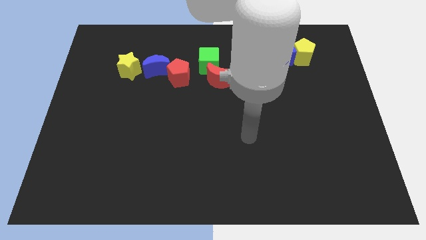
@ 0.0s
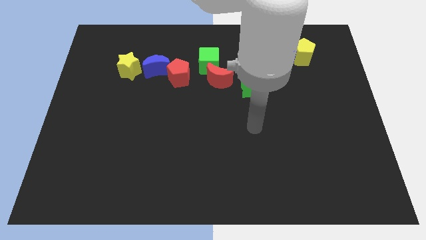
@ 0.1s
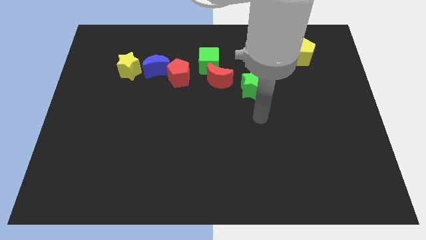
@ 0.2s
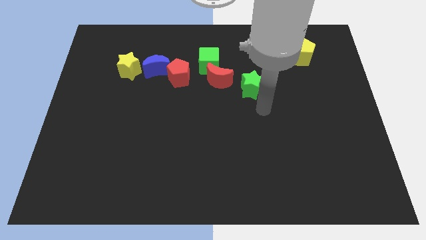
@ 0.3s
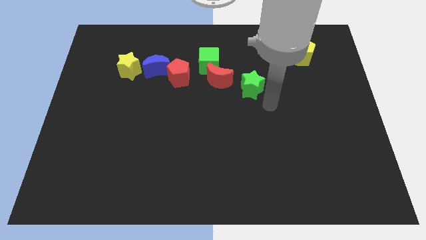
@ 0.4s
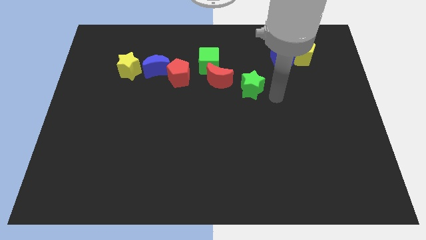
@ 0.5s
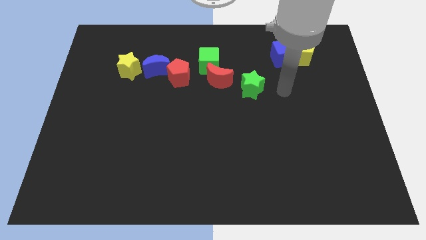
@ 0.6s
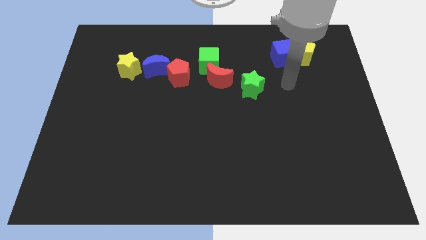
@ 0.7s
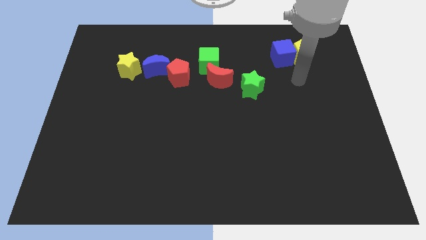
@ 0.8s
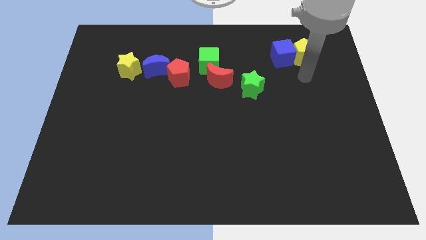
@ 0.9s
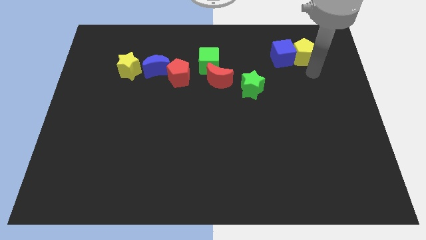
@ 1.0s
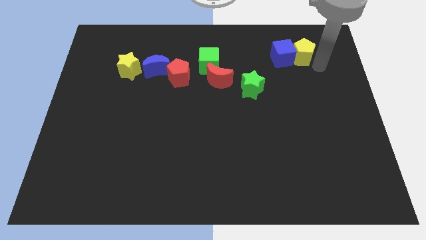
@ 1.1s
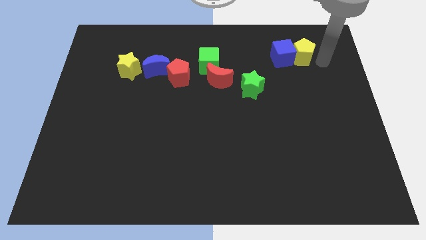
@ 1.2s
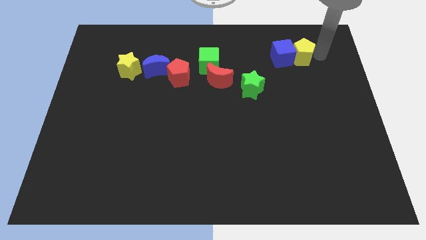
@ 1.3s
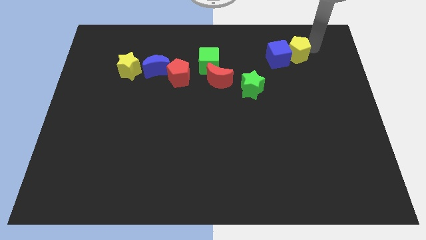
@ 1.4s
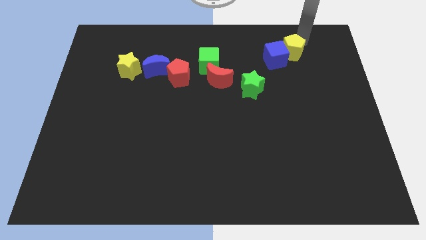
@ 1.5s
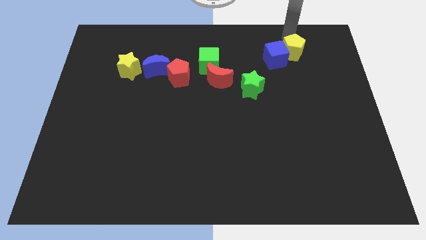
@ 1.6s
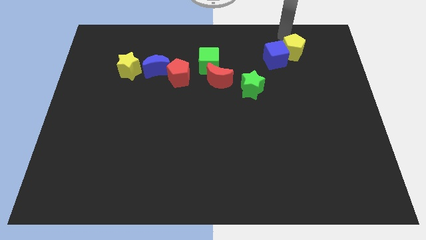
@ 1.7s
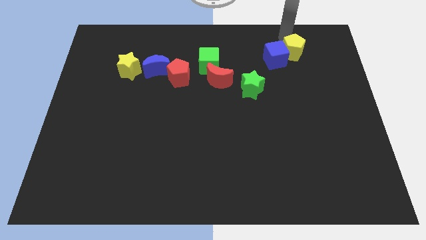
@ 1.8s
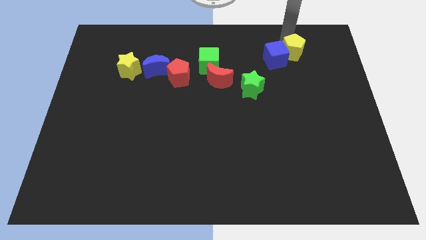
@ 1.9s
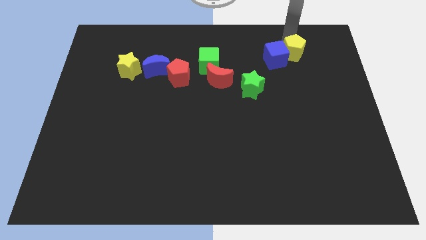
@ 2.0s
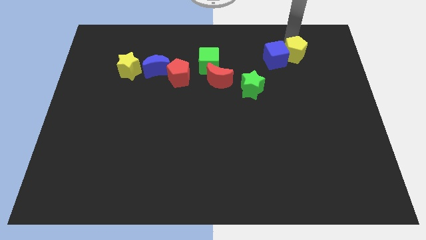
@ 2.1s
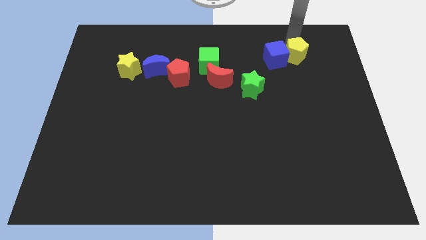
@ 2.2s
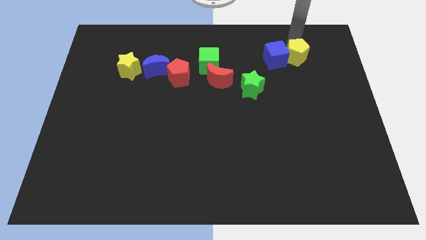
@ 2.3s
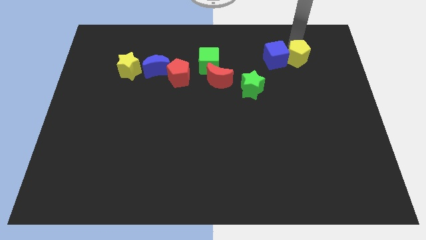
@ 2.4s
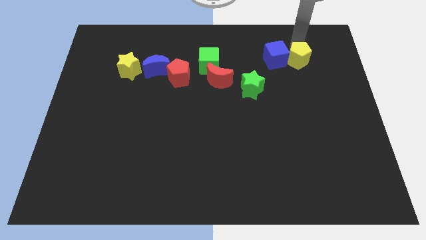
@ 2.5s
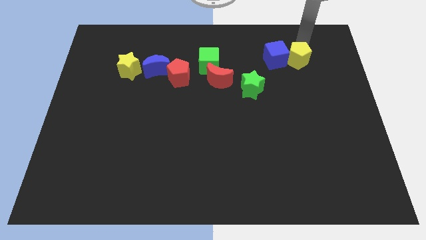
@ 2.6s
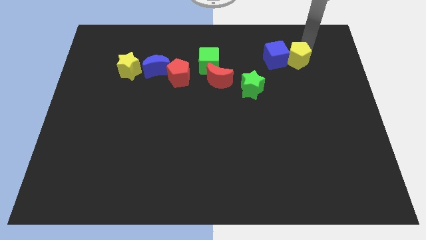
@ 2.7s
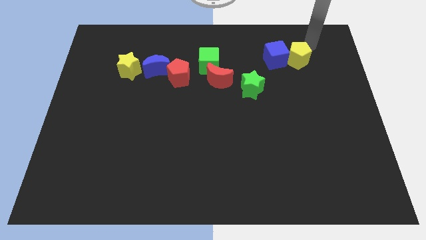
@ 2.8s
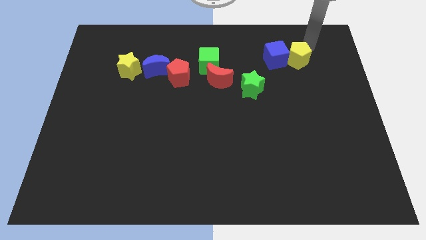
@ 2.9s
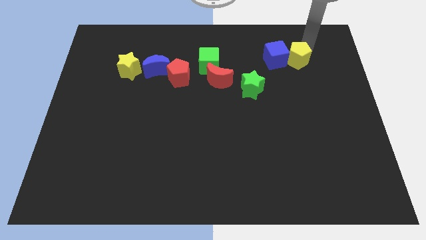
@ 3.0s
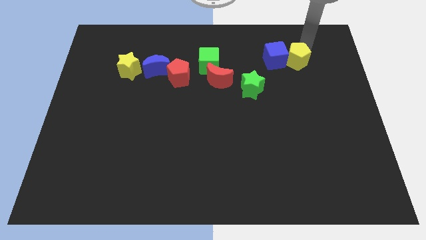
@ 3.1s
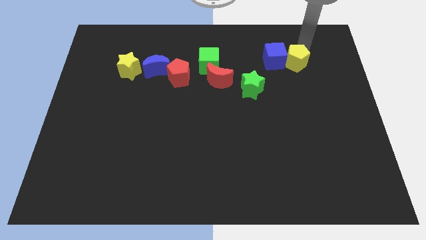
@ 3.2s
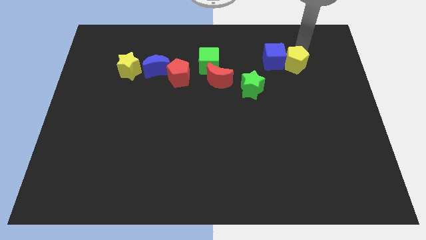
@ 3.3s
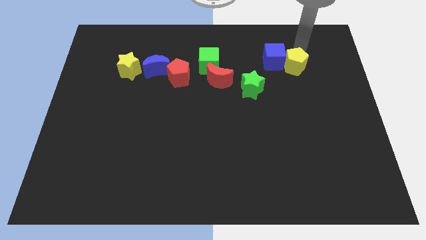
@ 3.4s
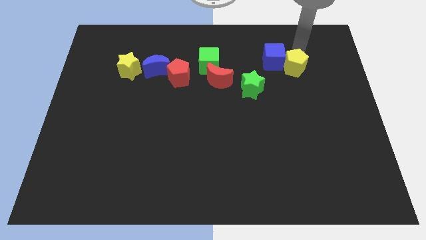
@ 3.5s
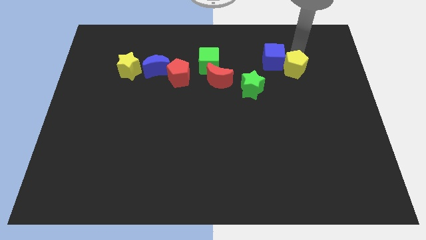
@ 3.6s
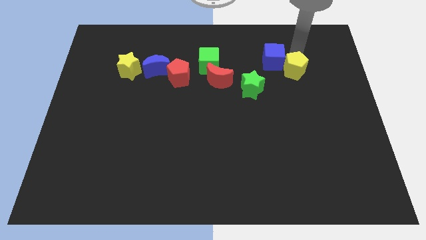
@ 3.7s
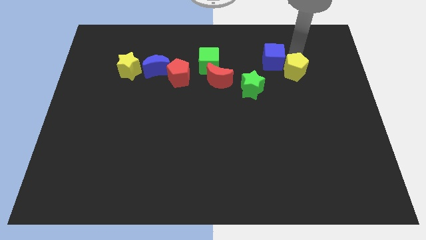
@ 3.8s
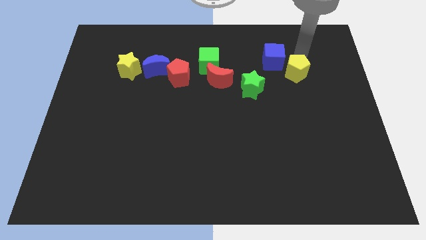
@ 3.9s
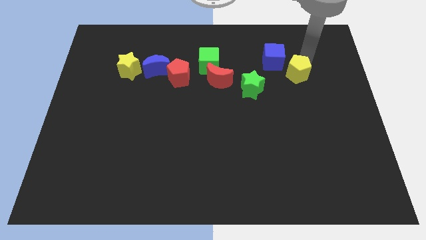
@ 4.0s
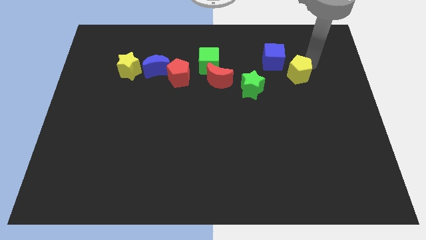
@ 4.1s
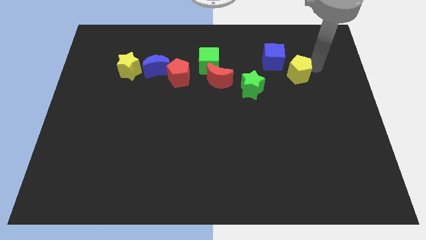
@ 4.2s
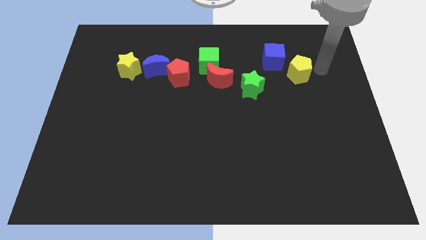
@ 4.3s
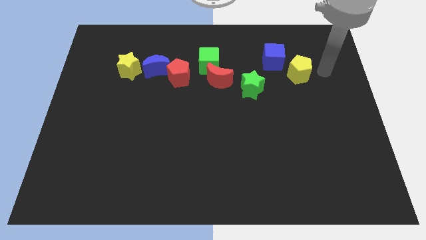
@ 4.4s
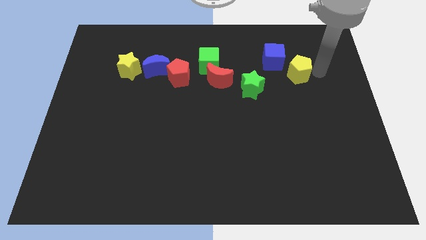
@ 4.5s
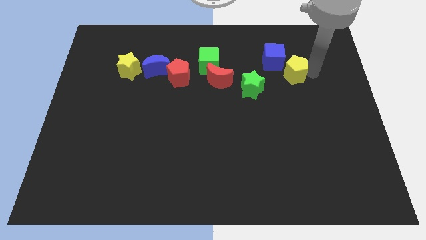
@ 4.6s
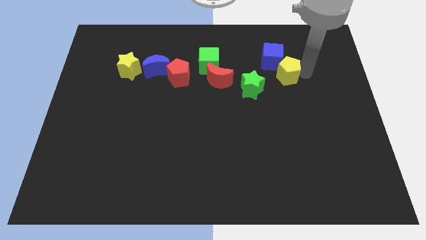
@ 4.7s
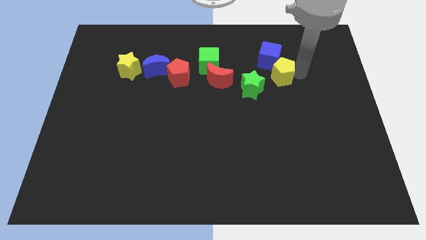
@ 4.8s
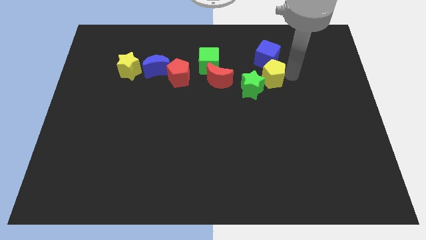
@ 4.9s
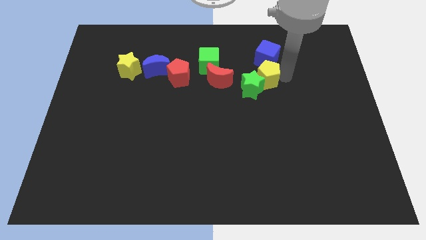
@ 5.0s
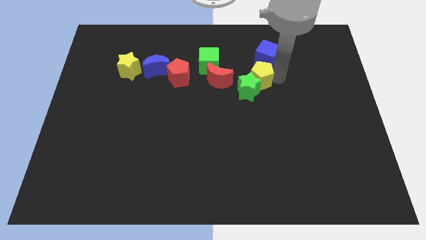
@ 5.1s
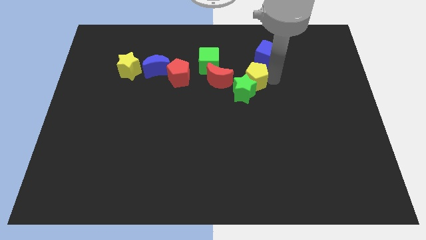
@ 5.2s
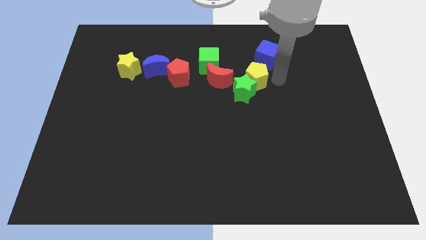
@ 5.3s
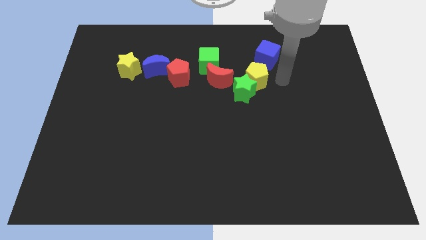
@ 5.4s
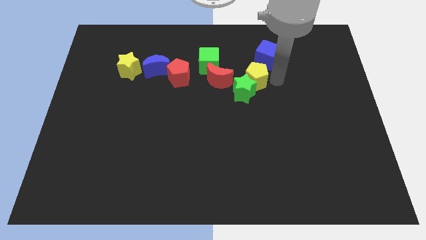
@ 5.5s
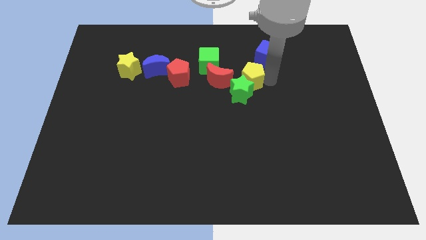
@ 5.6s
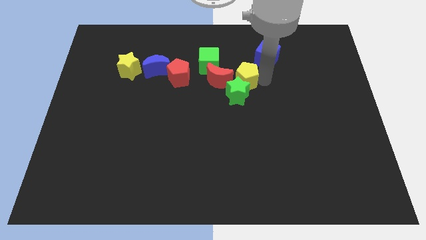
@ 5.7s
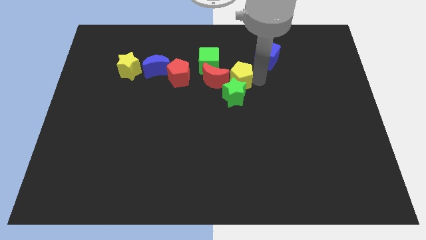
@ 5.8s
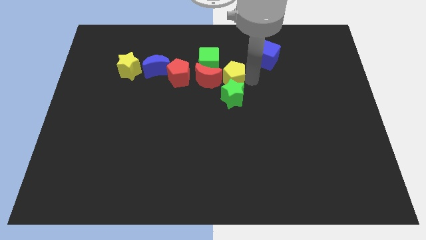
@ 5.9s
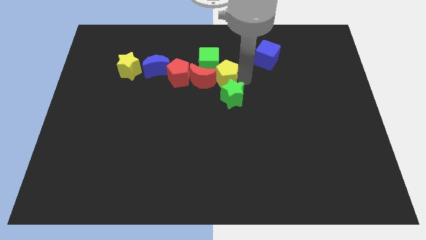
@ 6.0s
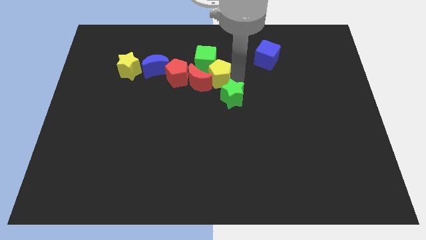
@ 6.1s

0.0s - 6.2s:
push the yellow pentagon towards the red moon

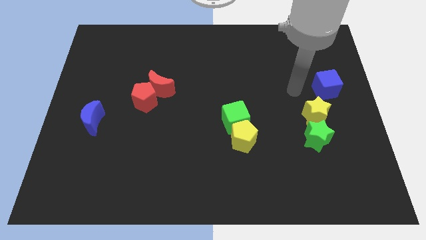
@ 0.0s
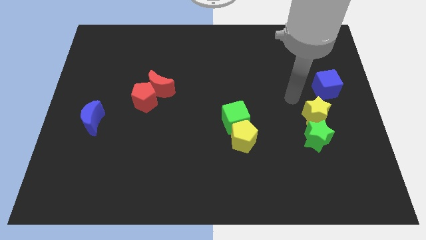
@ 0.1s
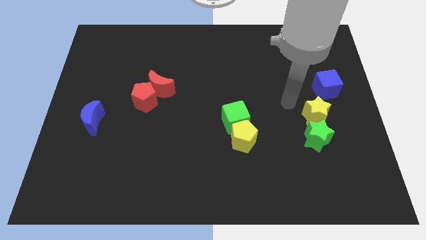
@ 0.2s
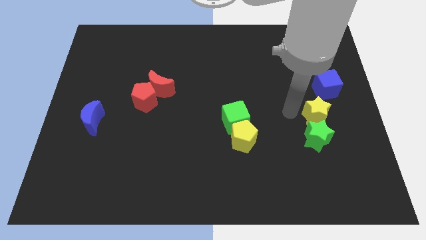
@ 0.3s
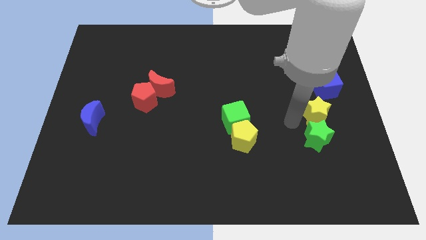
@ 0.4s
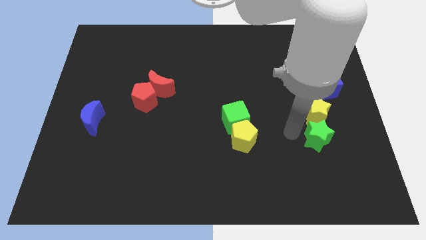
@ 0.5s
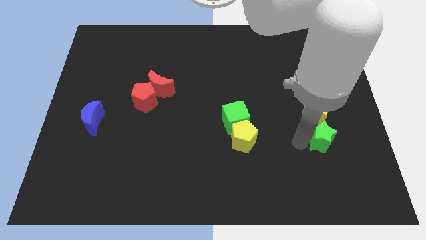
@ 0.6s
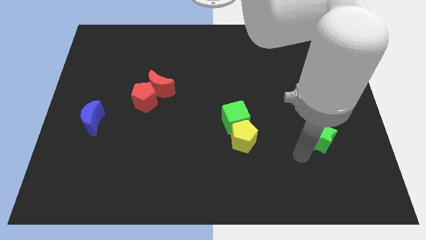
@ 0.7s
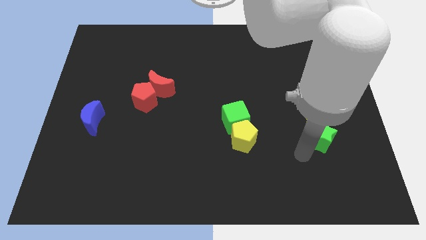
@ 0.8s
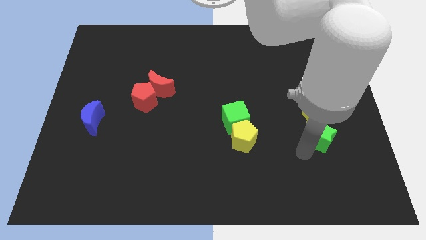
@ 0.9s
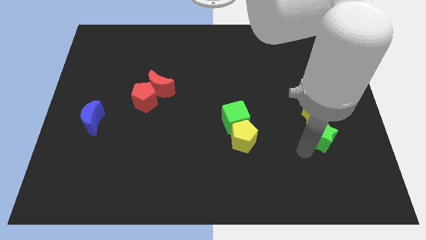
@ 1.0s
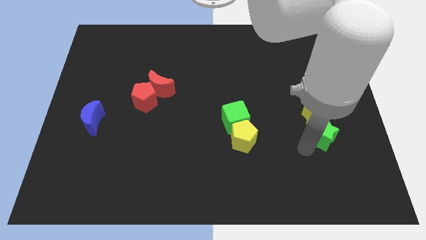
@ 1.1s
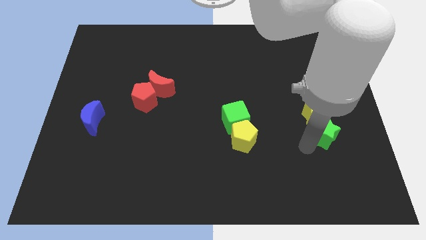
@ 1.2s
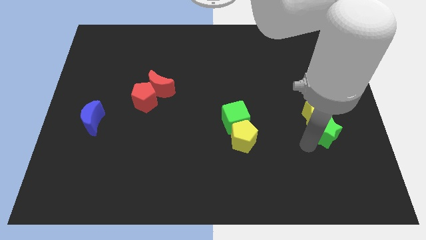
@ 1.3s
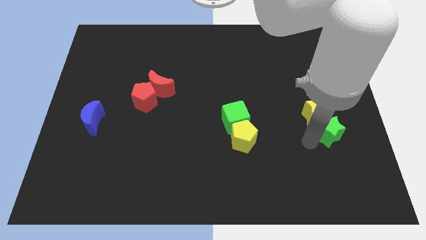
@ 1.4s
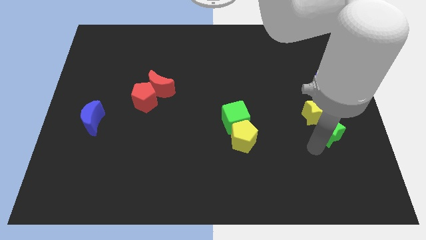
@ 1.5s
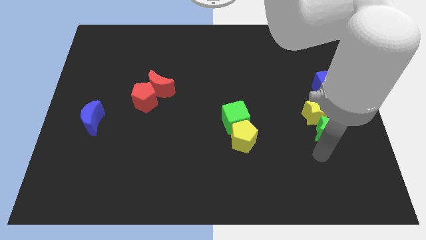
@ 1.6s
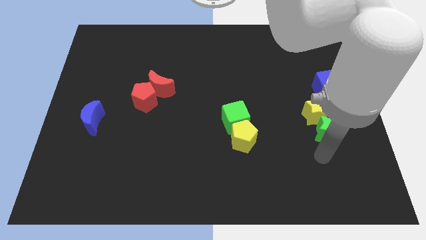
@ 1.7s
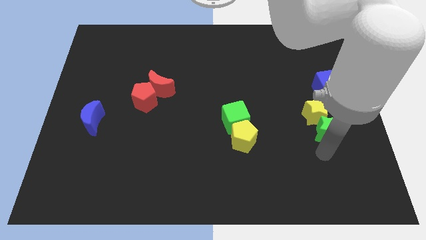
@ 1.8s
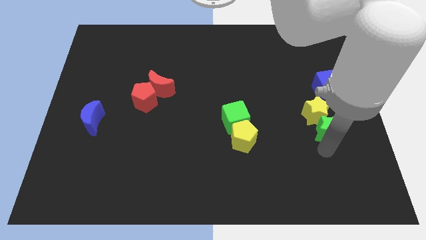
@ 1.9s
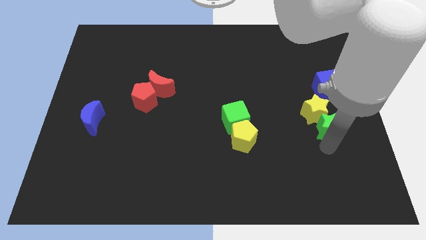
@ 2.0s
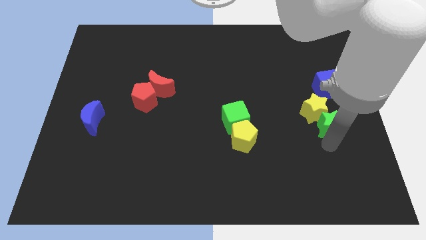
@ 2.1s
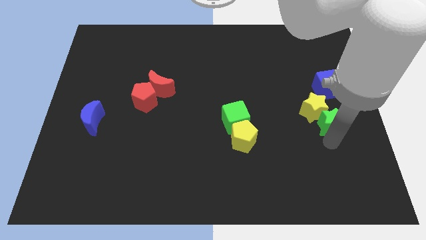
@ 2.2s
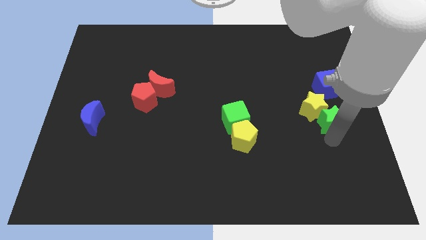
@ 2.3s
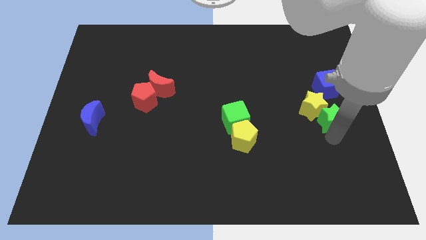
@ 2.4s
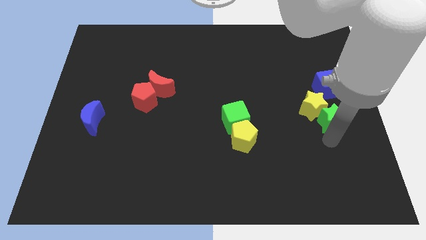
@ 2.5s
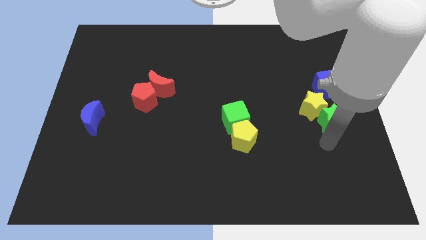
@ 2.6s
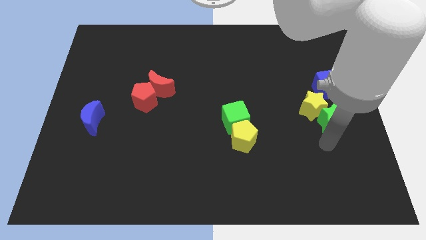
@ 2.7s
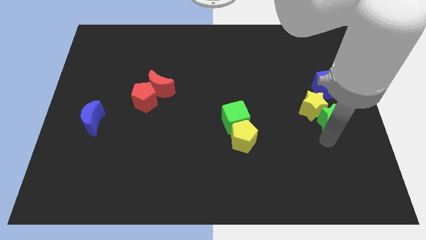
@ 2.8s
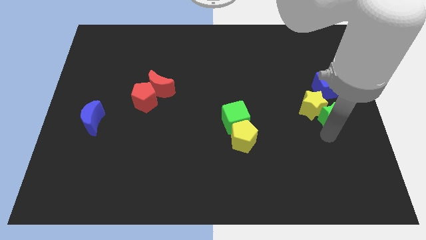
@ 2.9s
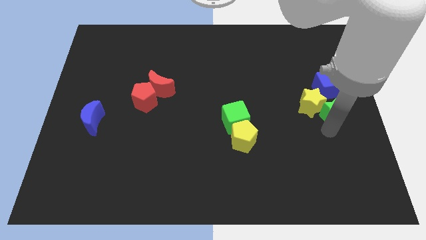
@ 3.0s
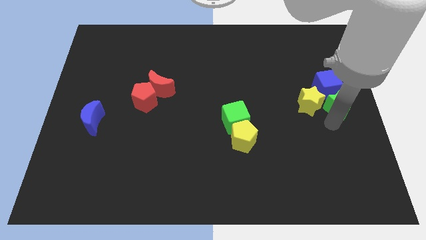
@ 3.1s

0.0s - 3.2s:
push the green star next to the blue cube
